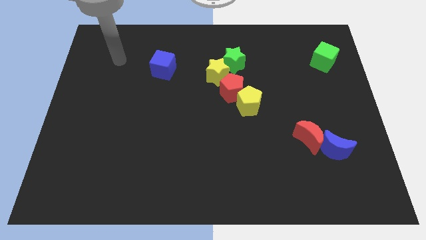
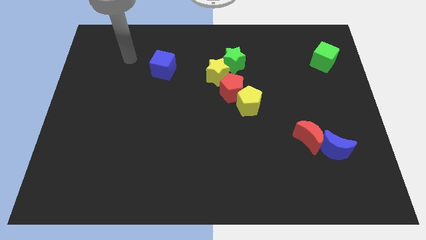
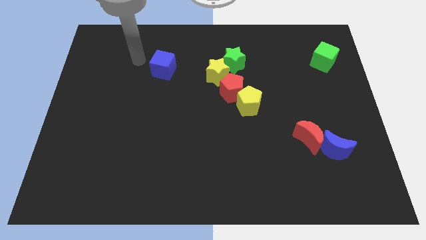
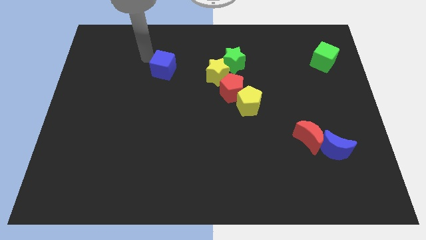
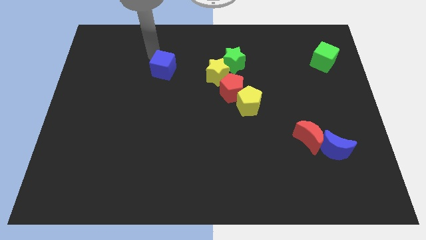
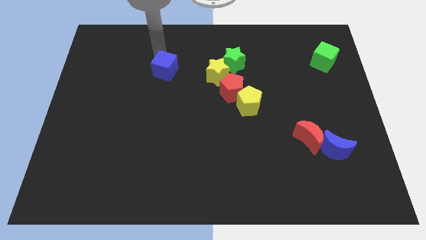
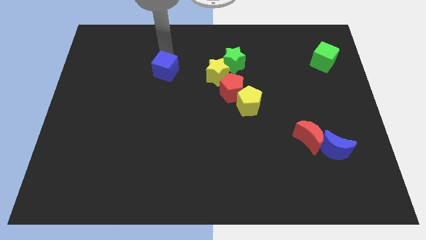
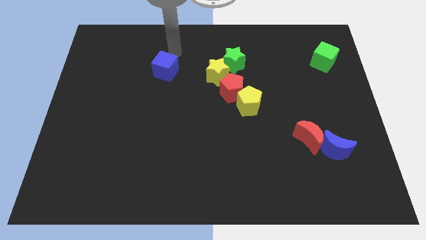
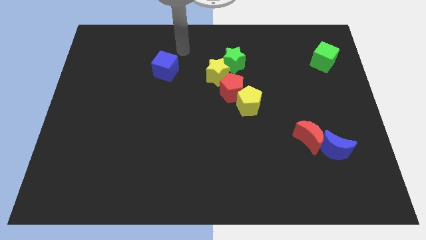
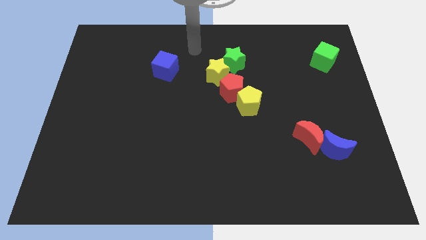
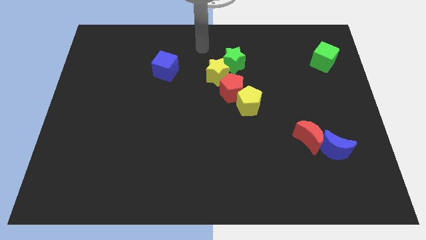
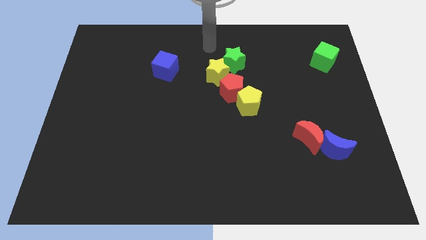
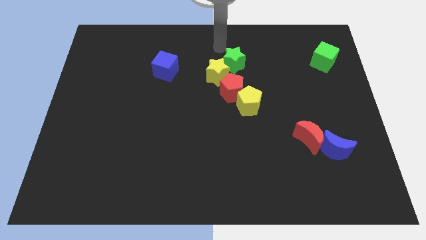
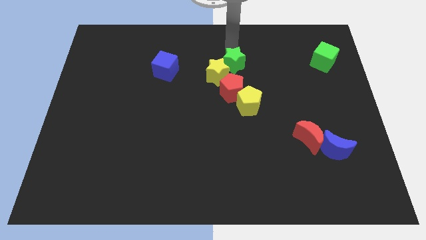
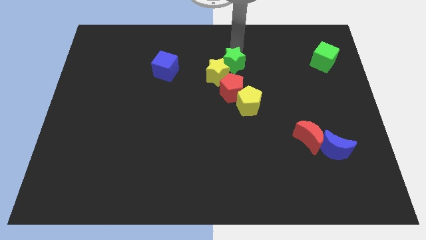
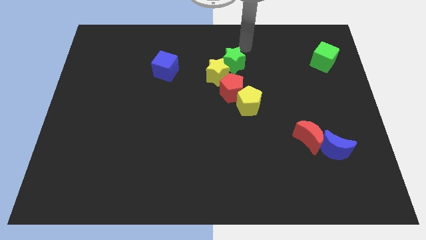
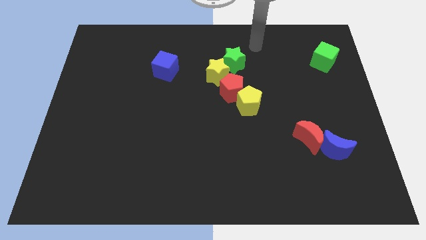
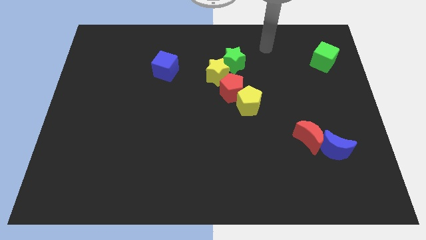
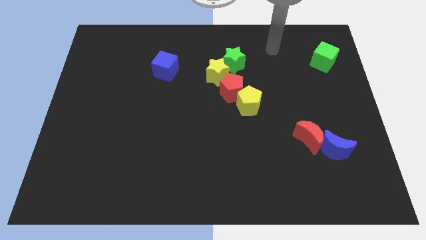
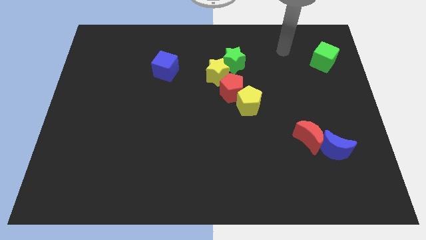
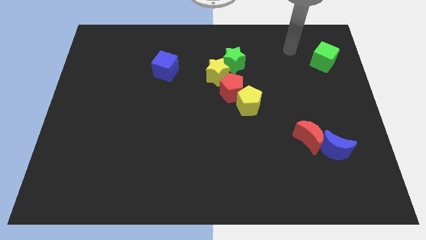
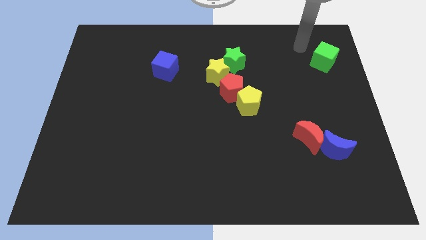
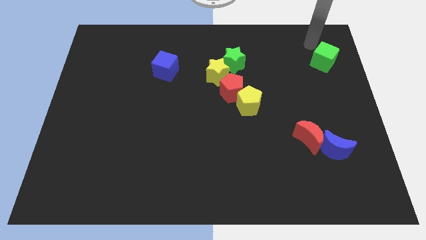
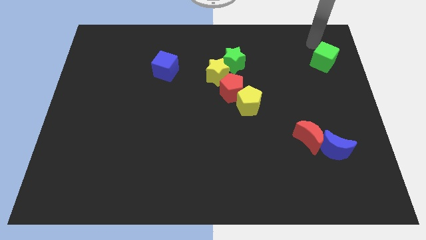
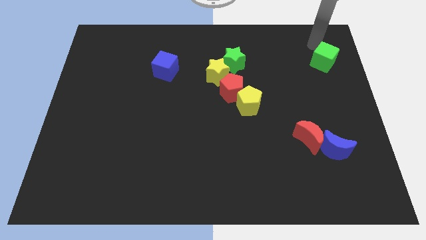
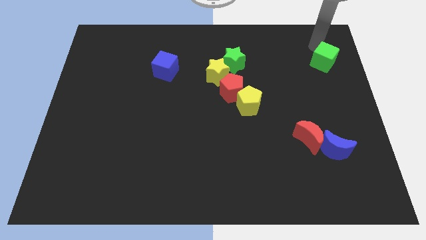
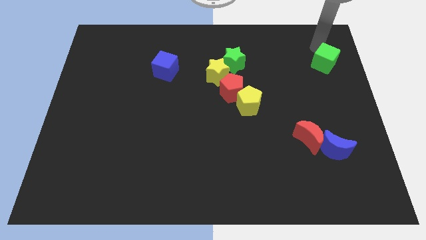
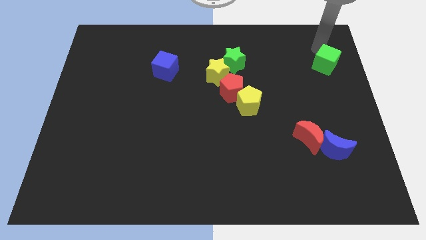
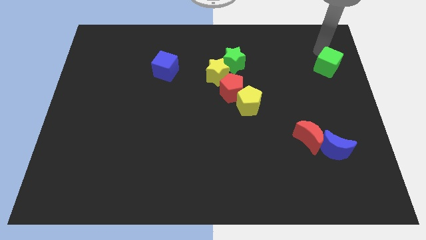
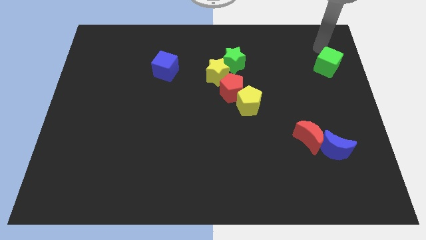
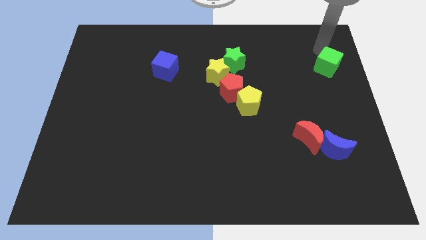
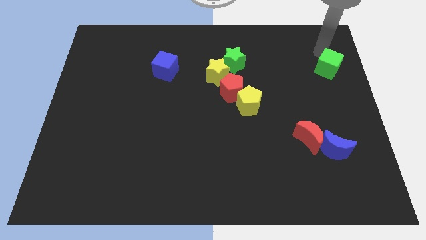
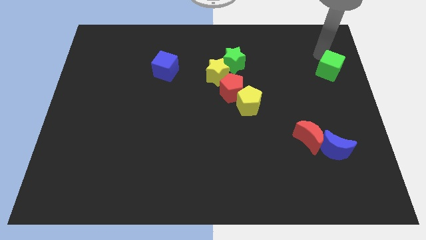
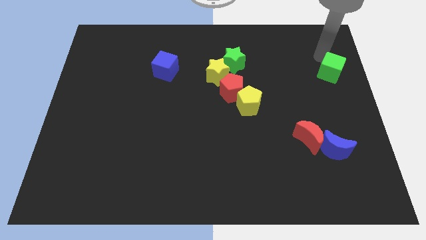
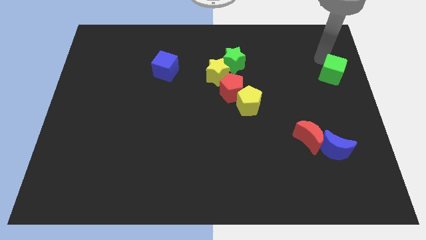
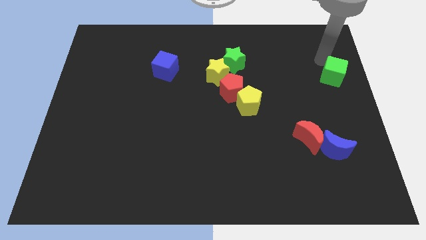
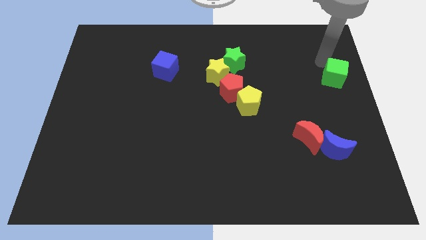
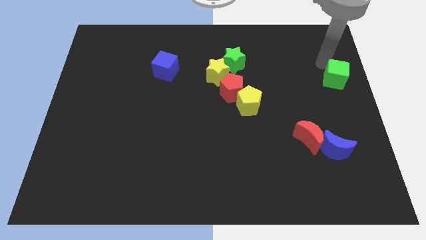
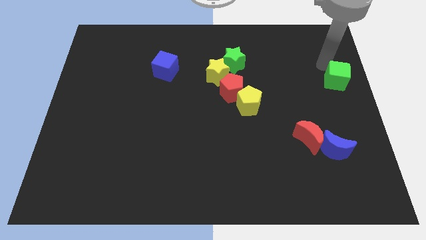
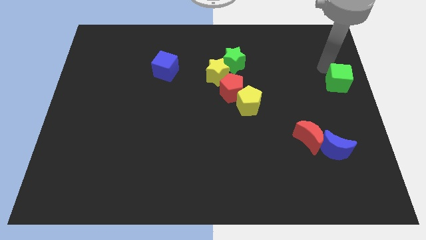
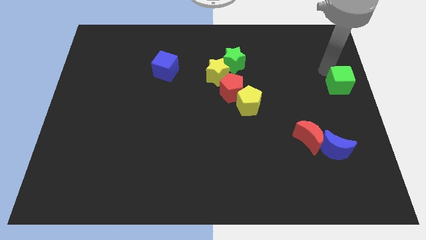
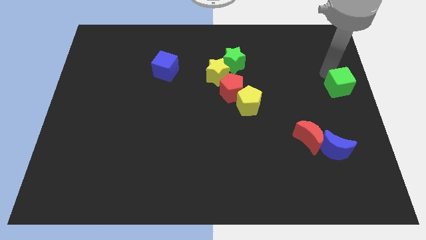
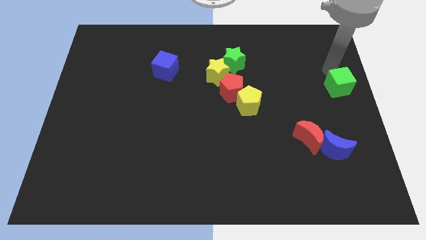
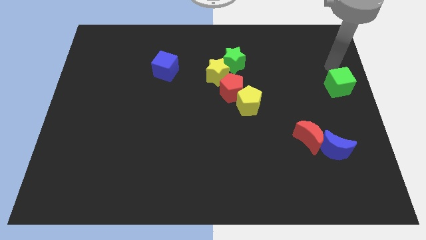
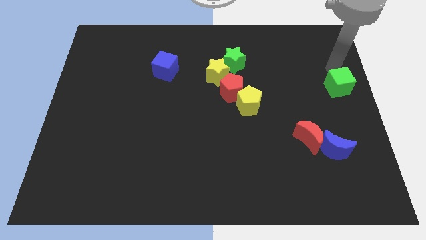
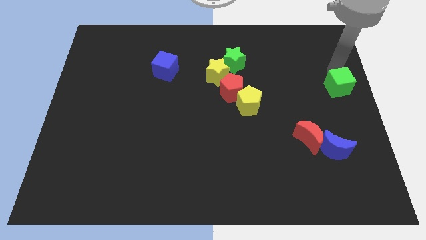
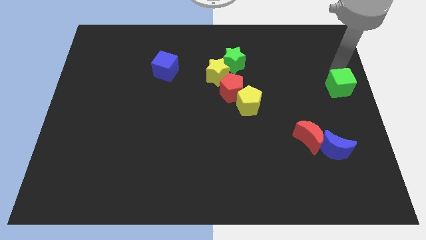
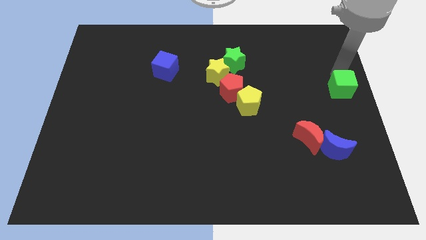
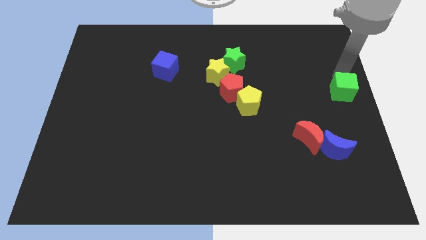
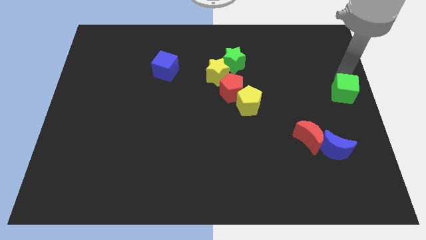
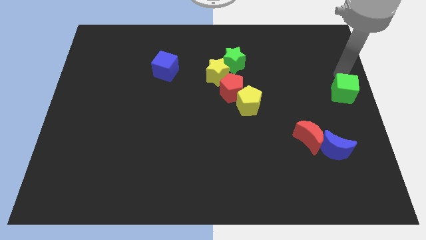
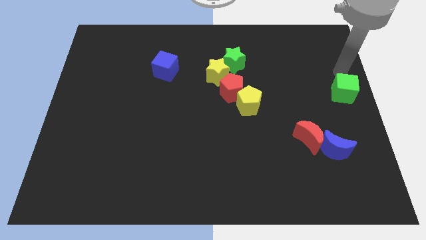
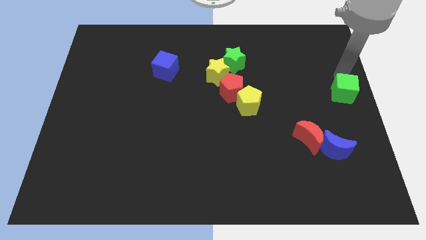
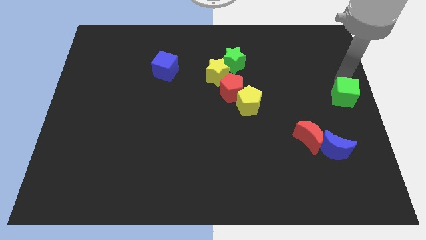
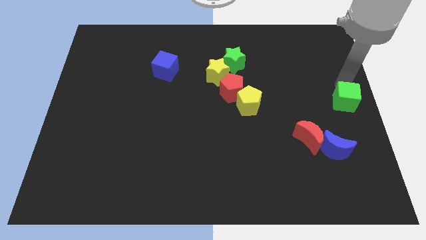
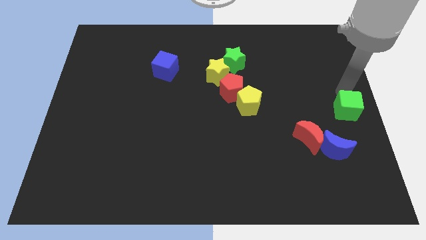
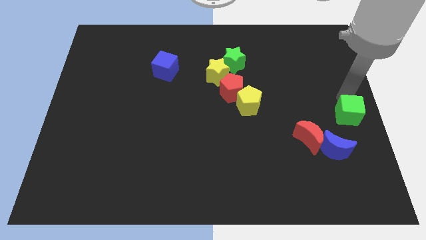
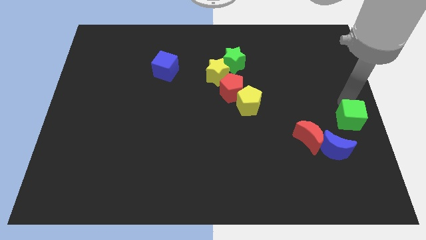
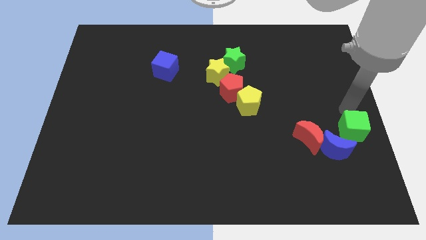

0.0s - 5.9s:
slide the green cube downwards

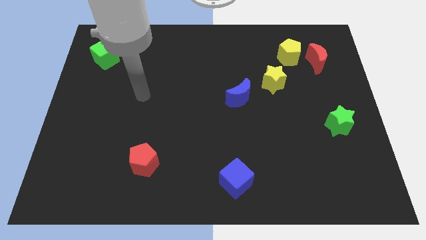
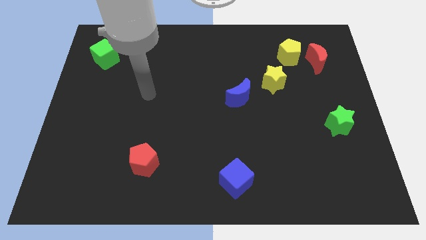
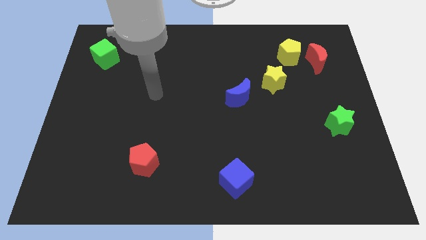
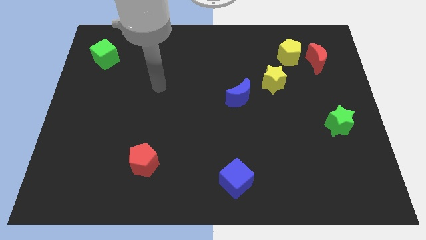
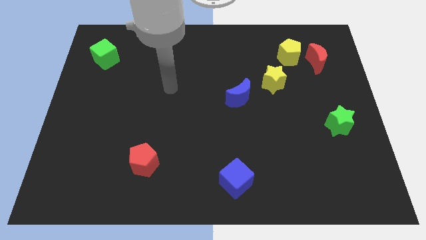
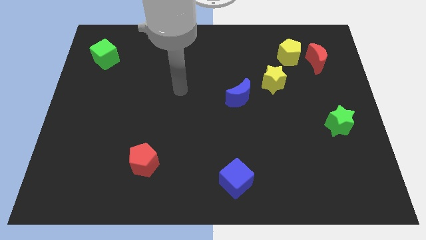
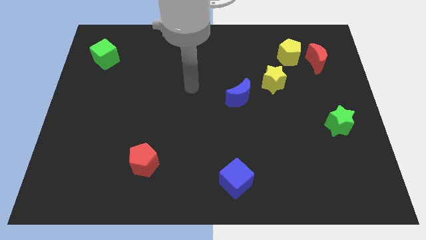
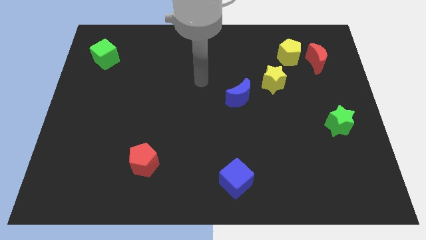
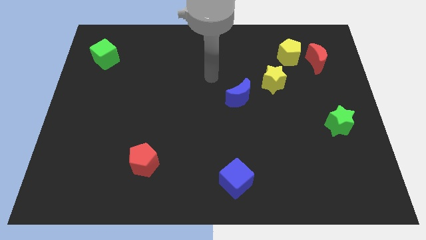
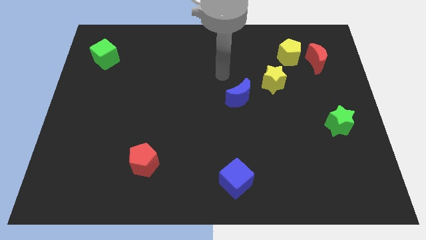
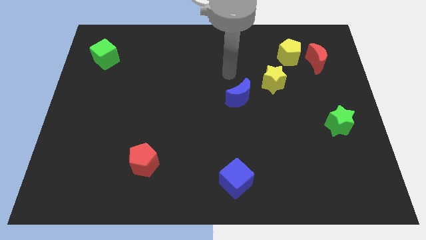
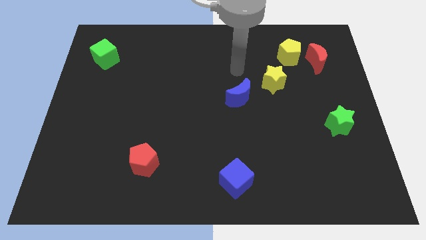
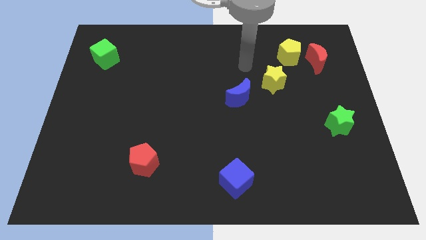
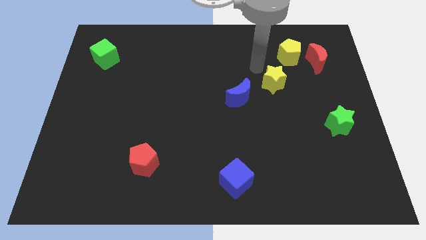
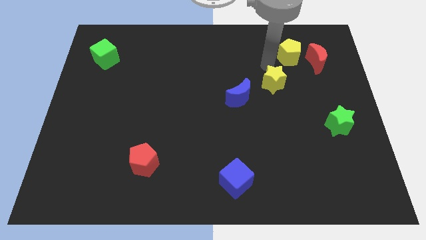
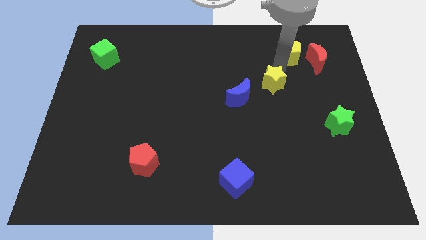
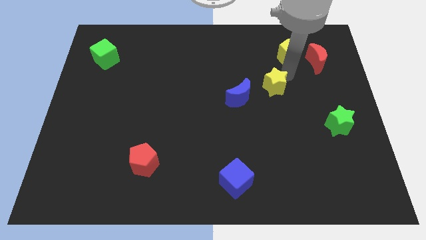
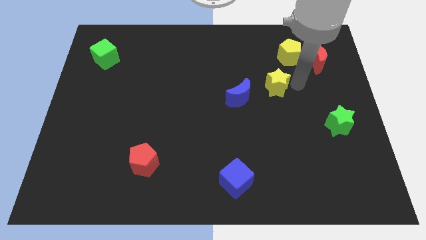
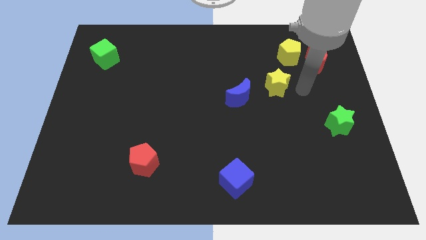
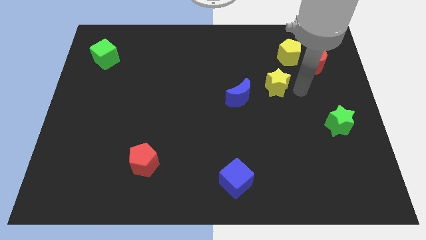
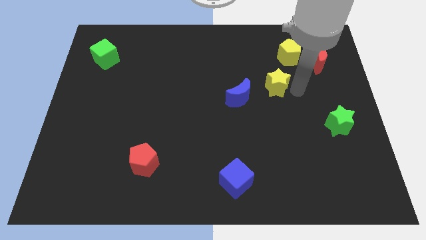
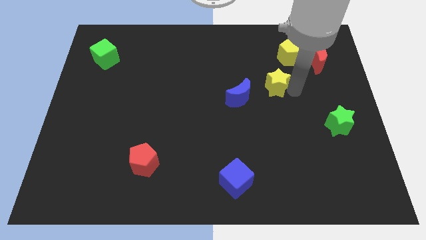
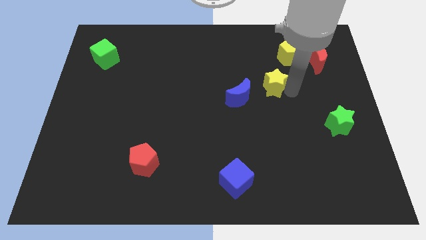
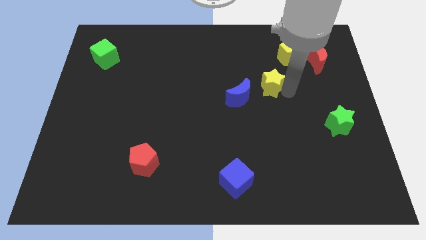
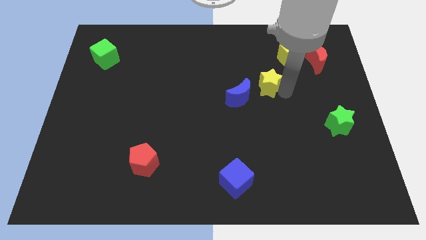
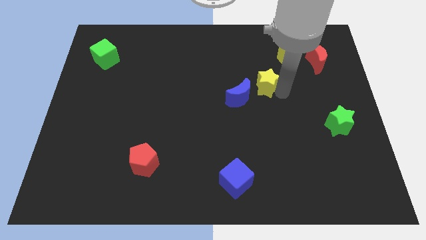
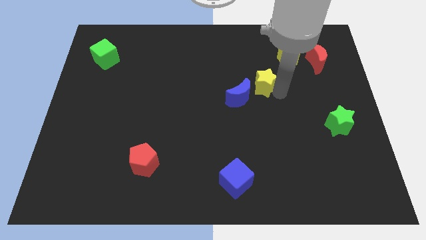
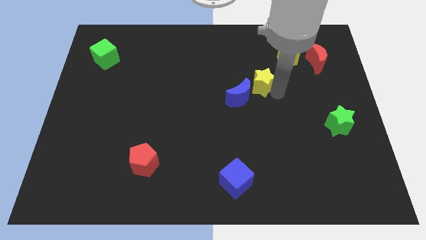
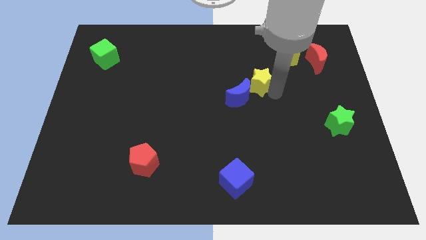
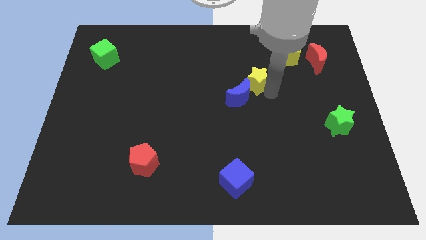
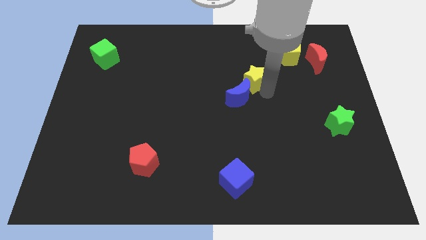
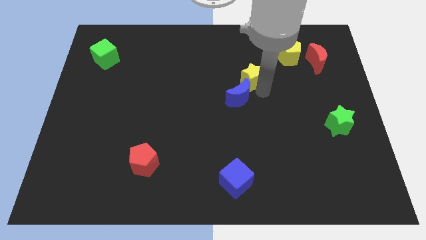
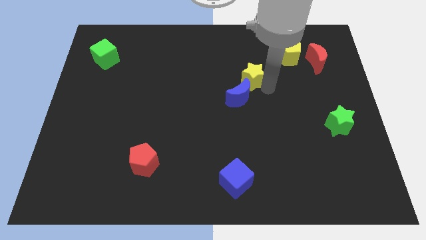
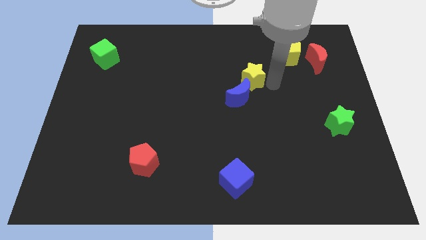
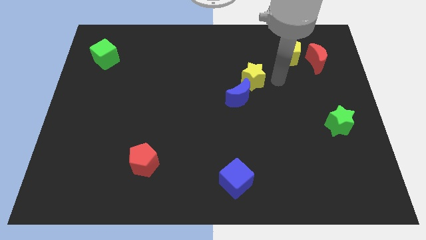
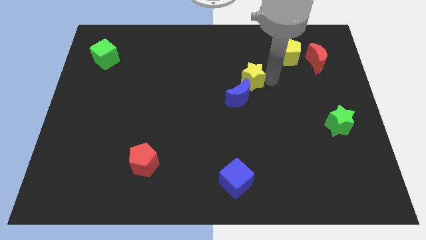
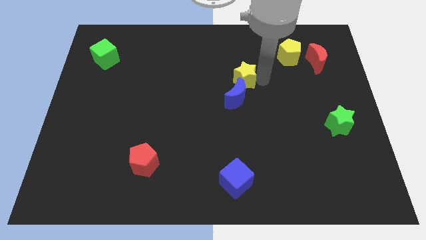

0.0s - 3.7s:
move the yellow star a little bit to the left
